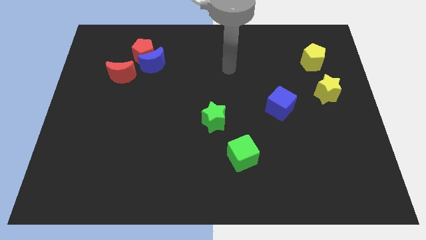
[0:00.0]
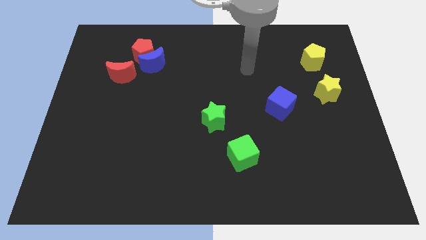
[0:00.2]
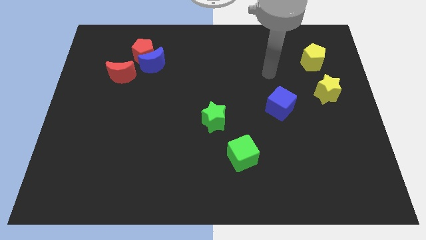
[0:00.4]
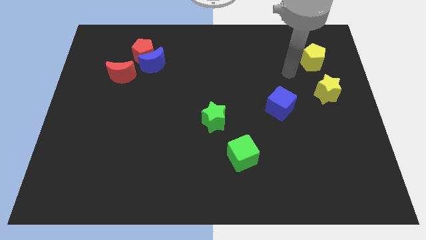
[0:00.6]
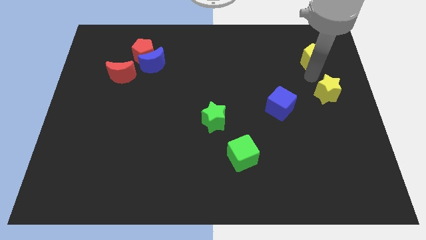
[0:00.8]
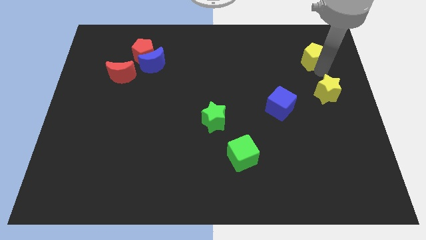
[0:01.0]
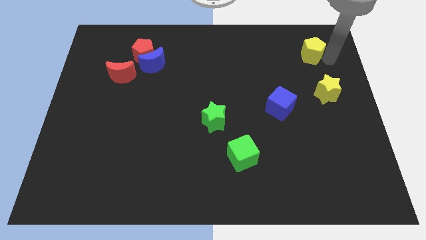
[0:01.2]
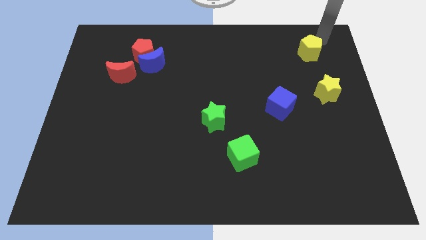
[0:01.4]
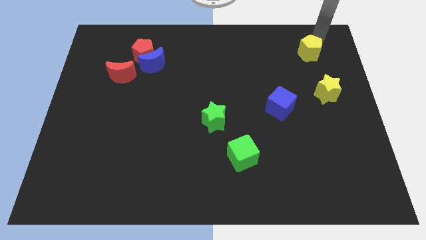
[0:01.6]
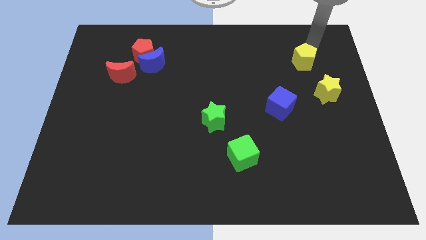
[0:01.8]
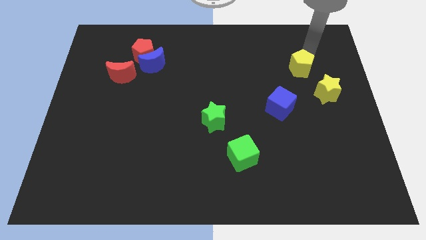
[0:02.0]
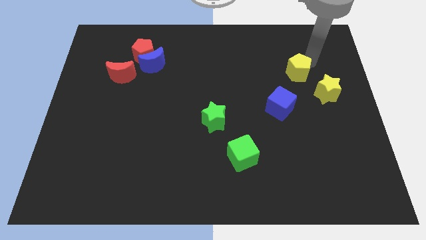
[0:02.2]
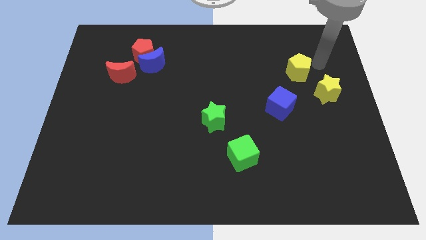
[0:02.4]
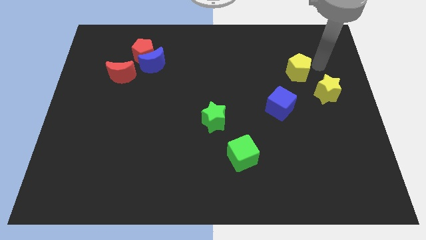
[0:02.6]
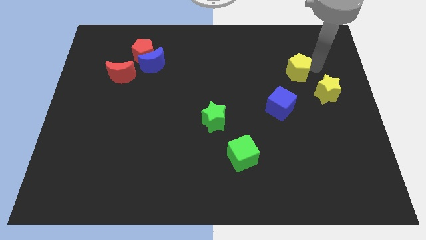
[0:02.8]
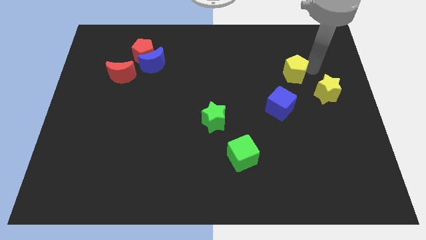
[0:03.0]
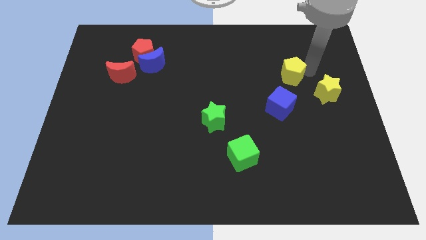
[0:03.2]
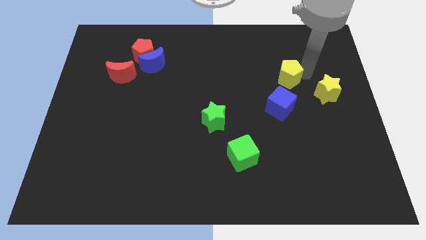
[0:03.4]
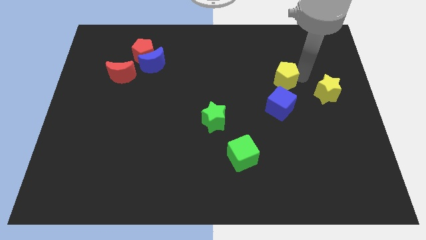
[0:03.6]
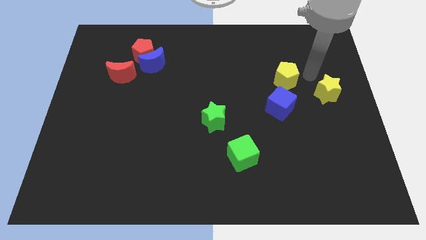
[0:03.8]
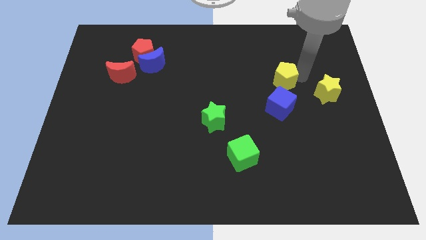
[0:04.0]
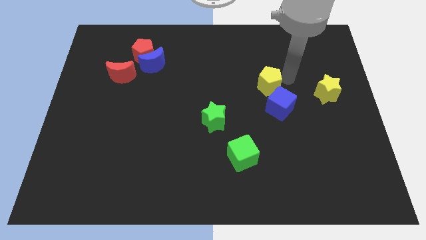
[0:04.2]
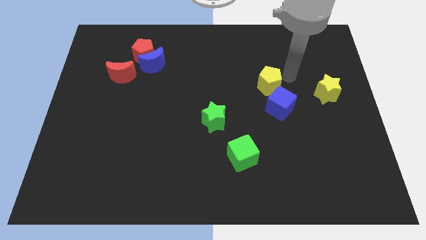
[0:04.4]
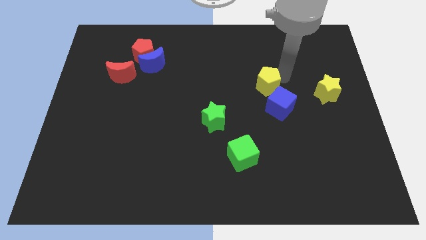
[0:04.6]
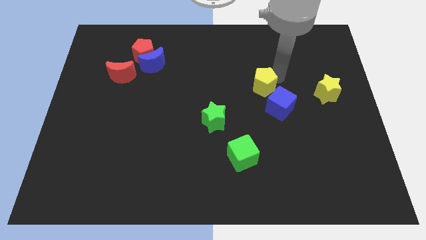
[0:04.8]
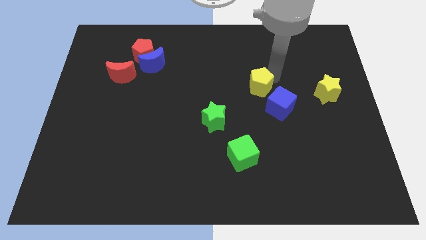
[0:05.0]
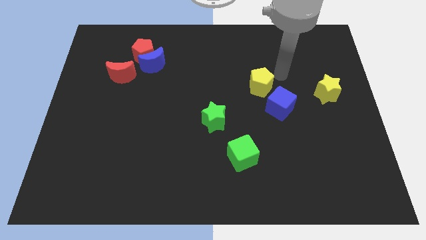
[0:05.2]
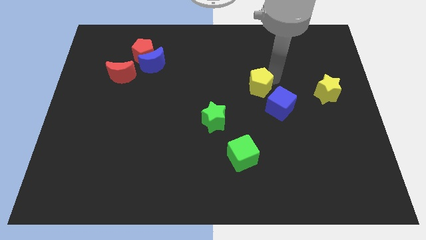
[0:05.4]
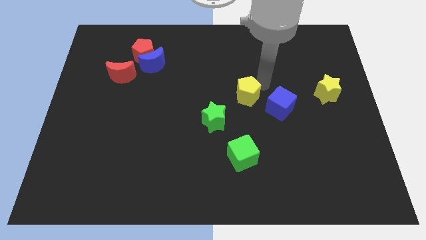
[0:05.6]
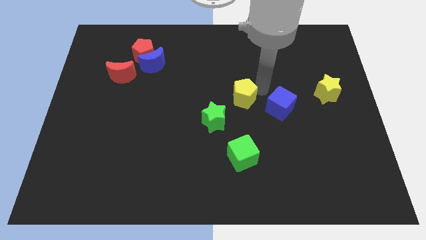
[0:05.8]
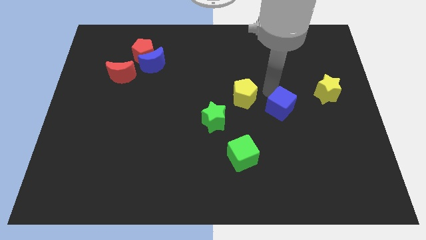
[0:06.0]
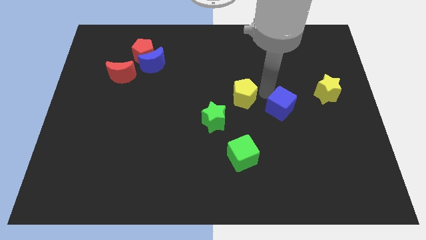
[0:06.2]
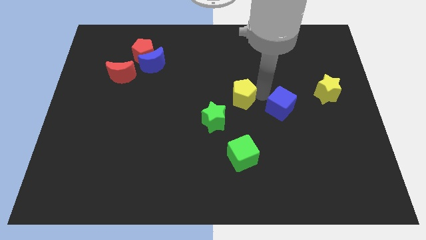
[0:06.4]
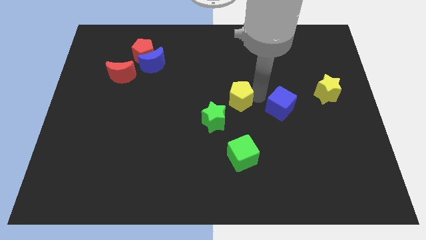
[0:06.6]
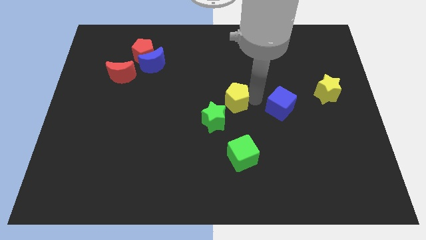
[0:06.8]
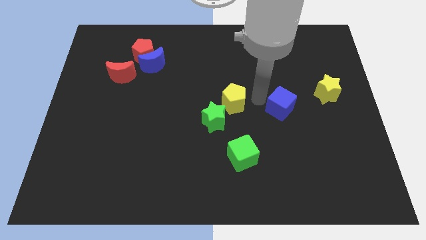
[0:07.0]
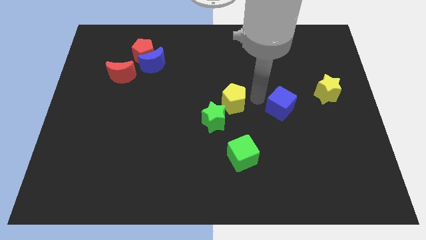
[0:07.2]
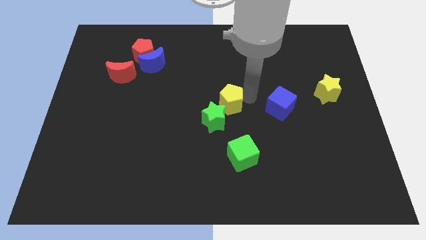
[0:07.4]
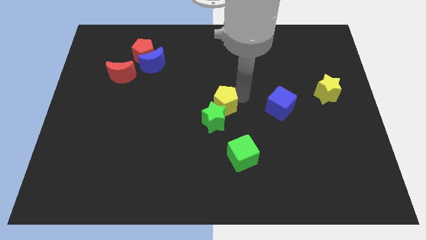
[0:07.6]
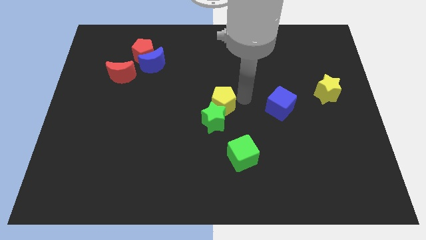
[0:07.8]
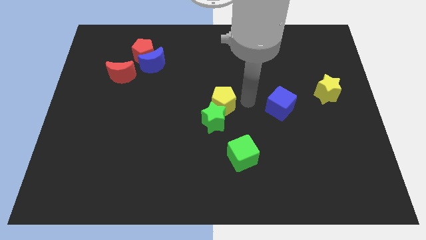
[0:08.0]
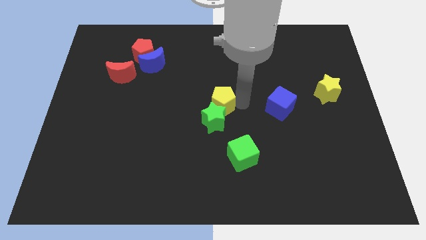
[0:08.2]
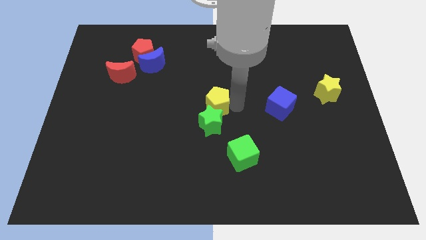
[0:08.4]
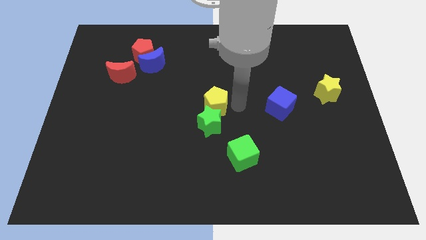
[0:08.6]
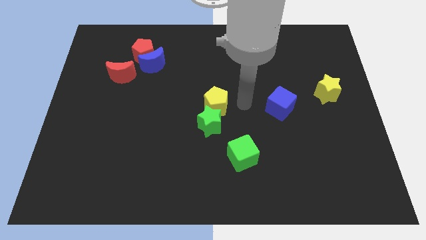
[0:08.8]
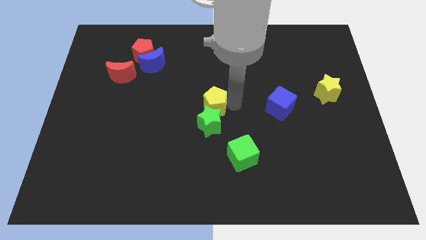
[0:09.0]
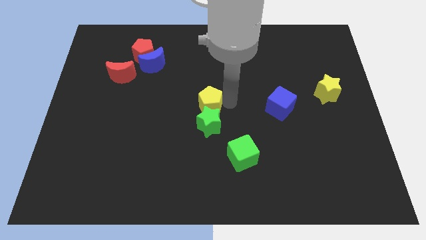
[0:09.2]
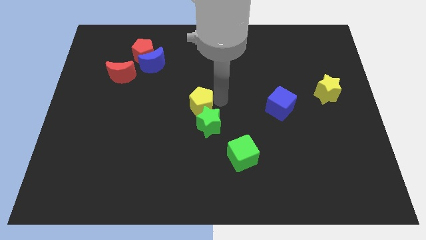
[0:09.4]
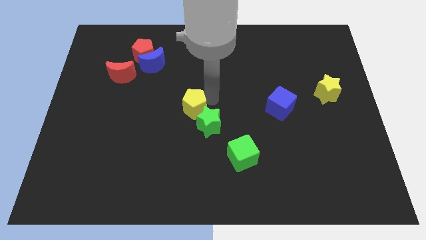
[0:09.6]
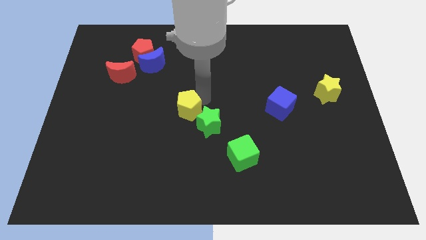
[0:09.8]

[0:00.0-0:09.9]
push the yellow pentagon left of the green star

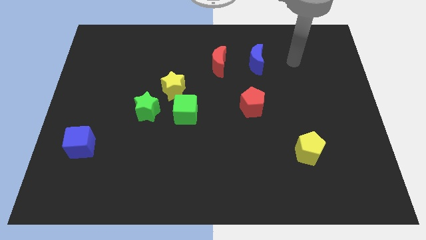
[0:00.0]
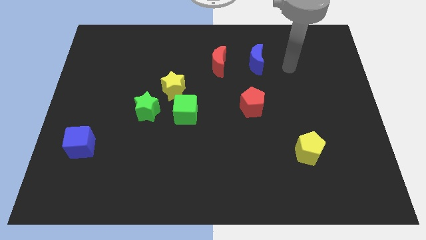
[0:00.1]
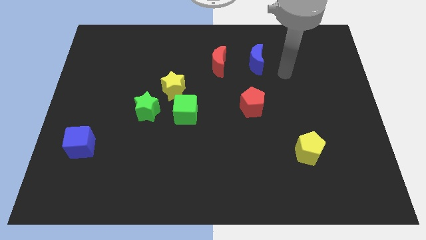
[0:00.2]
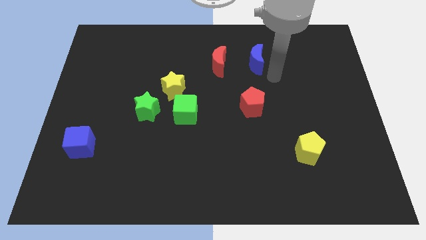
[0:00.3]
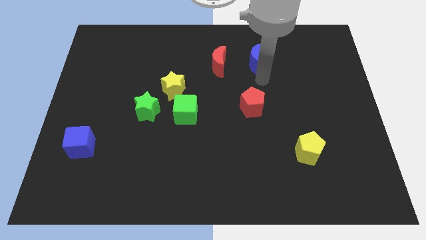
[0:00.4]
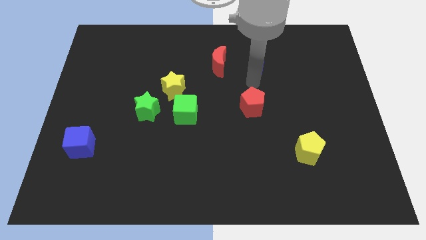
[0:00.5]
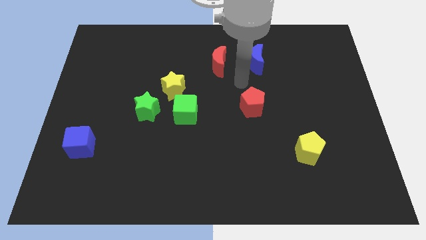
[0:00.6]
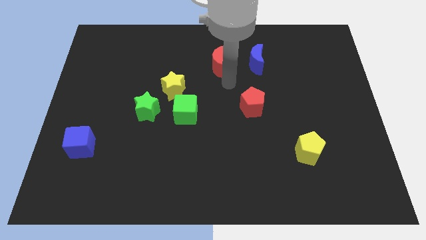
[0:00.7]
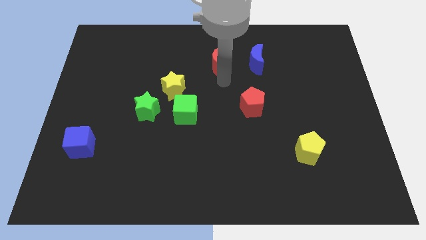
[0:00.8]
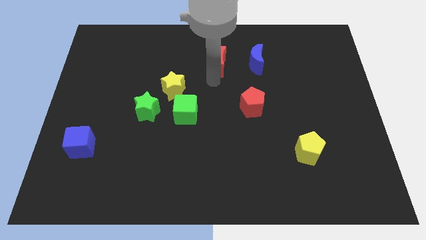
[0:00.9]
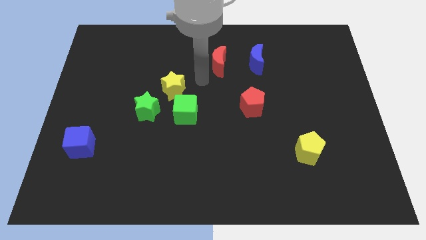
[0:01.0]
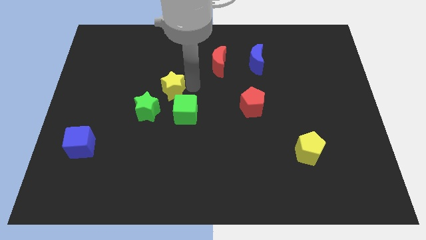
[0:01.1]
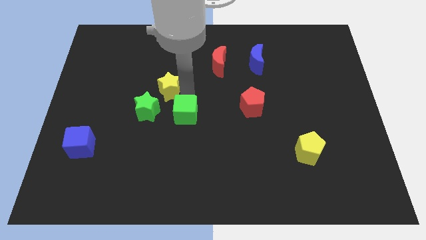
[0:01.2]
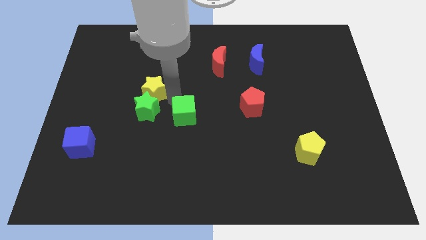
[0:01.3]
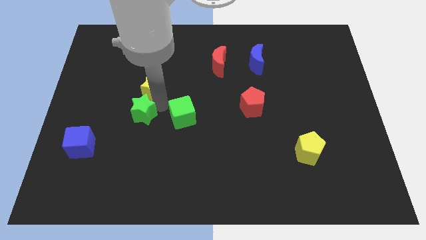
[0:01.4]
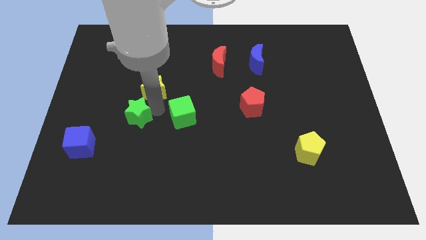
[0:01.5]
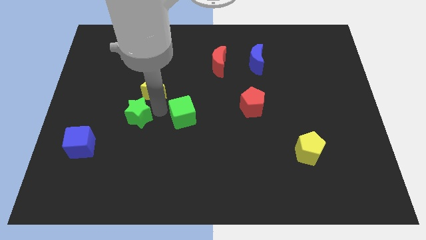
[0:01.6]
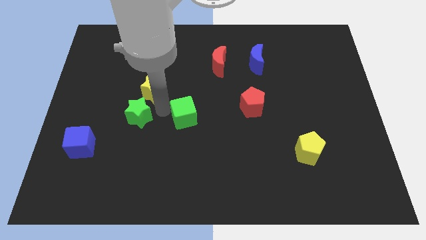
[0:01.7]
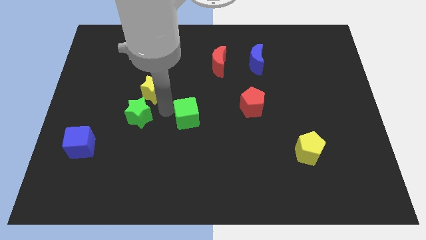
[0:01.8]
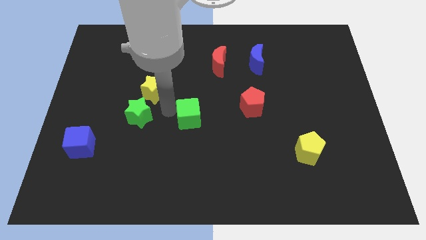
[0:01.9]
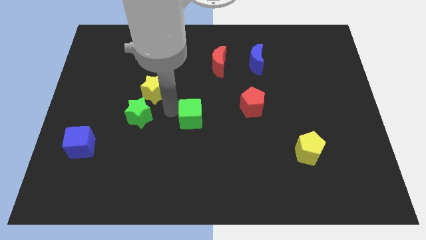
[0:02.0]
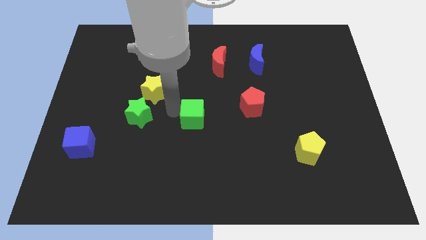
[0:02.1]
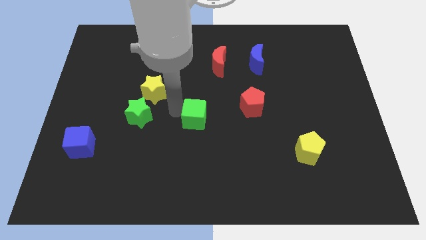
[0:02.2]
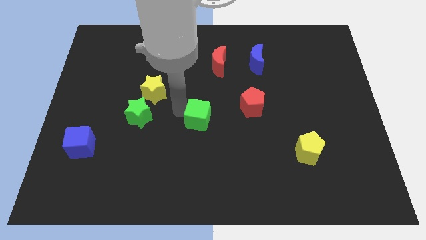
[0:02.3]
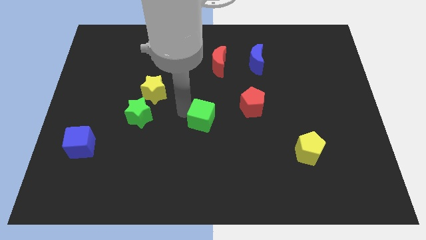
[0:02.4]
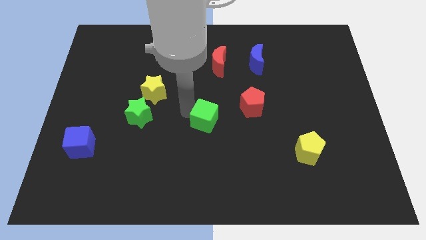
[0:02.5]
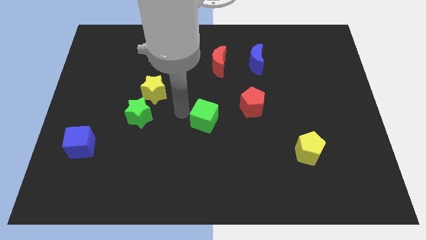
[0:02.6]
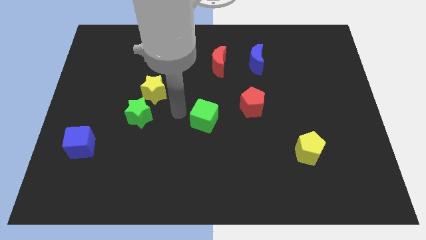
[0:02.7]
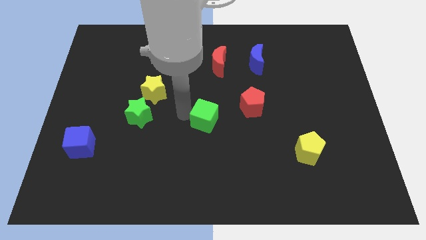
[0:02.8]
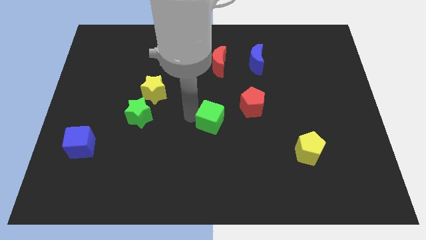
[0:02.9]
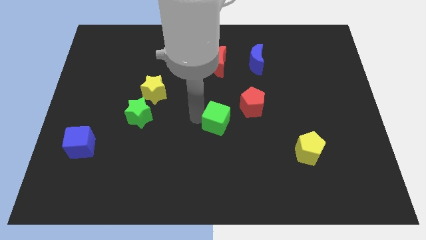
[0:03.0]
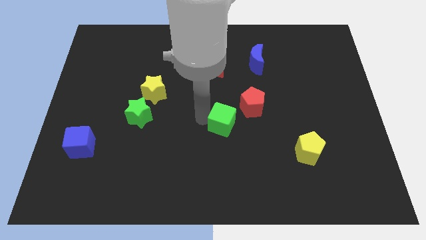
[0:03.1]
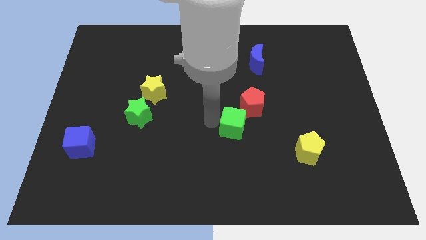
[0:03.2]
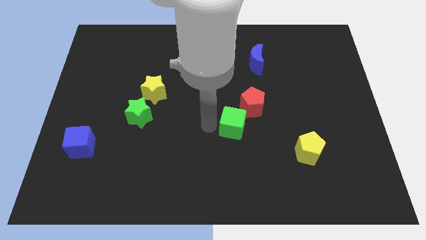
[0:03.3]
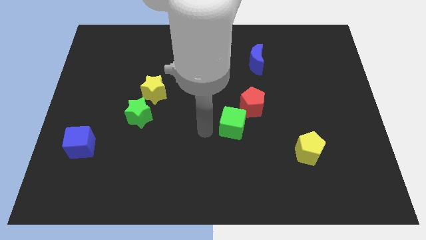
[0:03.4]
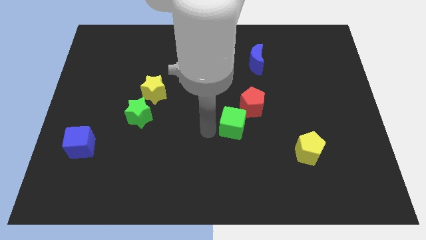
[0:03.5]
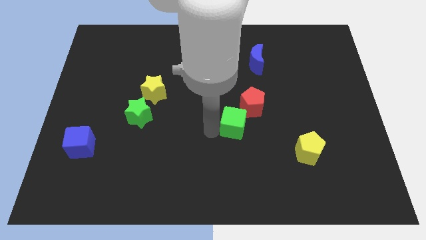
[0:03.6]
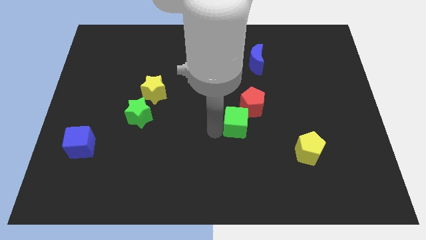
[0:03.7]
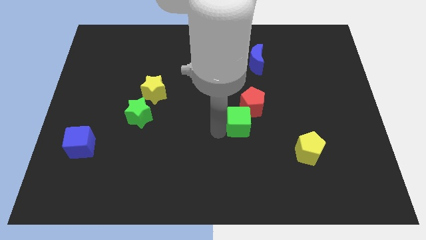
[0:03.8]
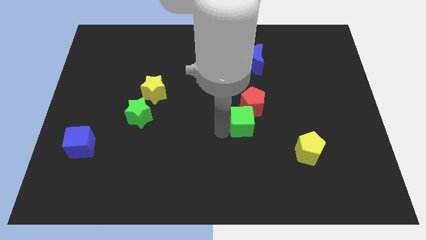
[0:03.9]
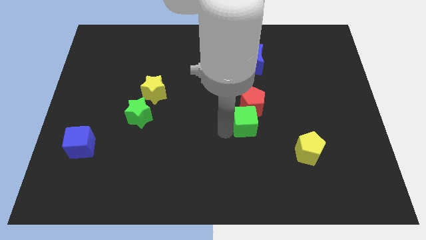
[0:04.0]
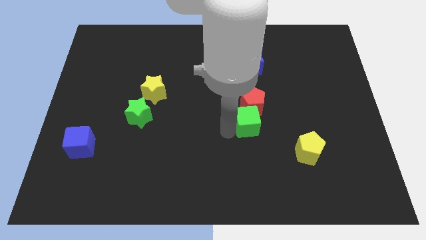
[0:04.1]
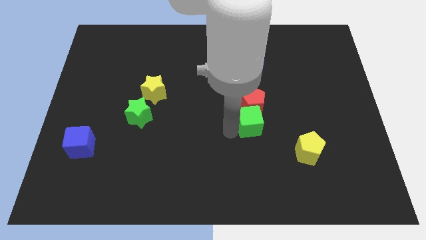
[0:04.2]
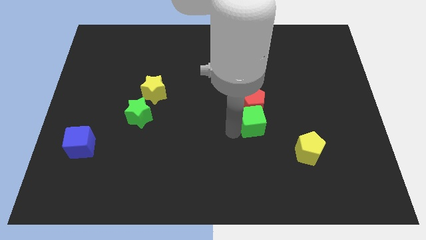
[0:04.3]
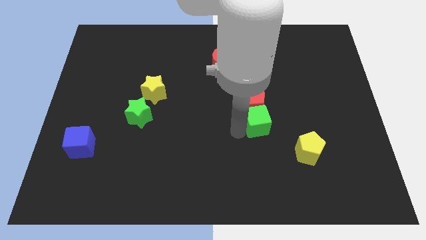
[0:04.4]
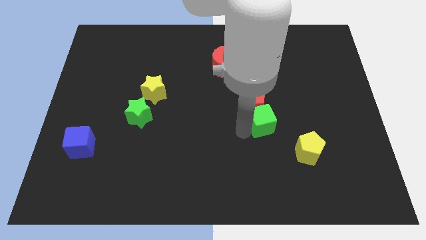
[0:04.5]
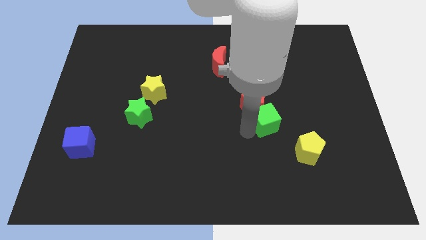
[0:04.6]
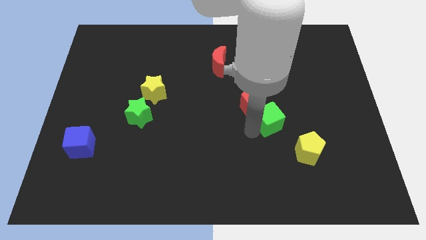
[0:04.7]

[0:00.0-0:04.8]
push the green cube right of the red pentagon
